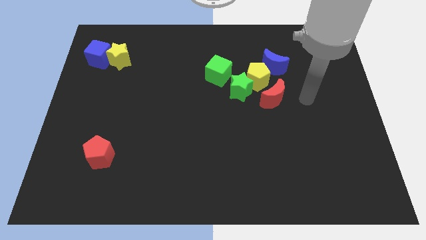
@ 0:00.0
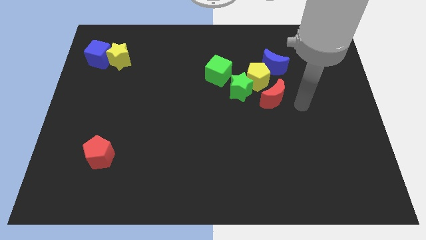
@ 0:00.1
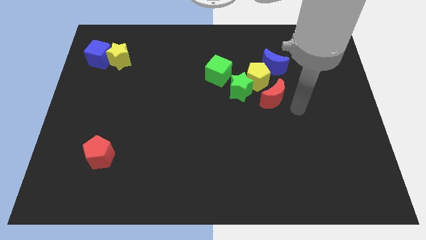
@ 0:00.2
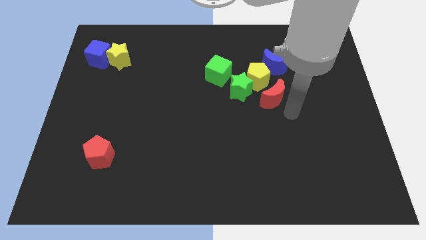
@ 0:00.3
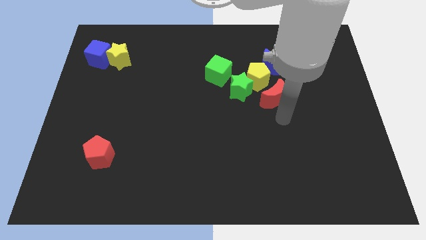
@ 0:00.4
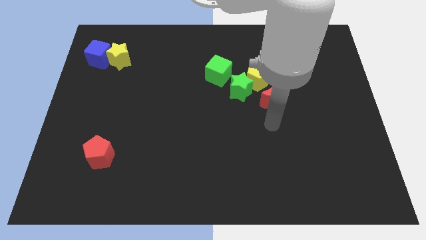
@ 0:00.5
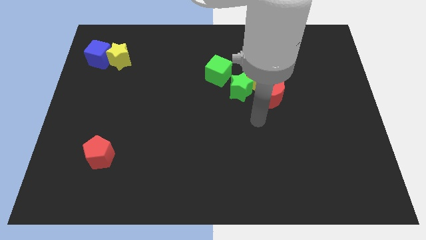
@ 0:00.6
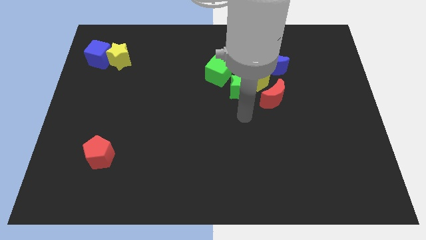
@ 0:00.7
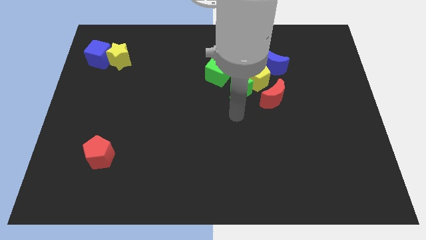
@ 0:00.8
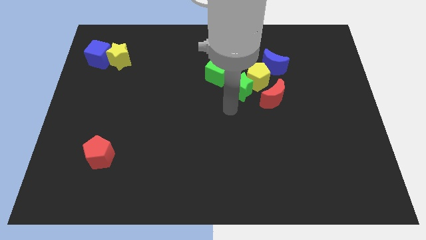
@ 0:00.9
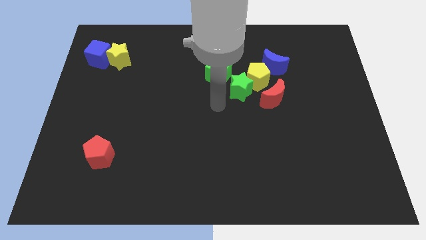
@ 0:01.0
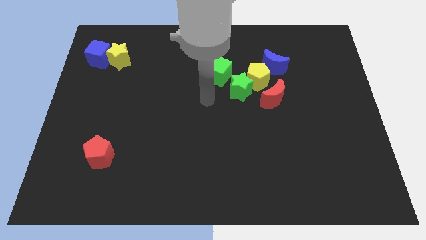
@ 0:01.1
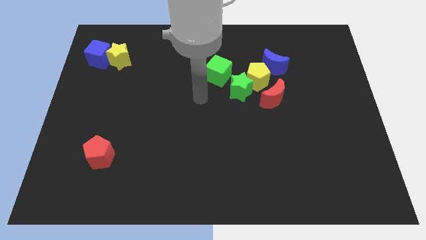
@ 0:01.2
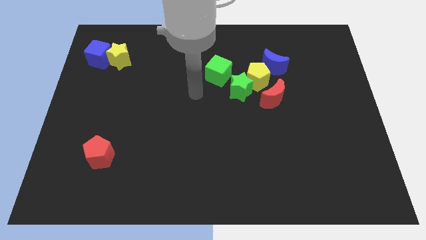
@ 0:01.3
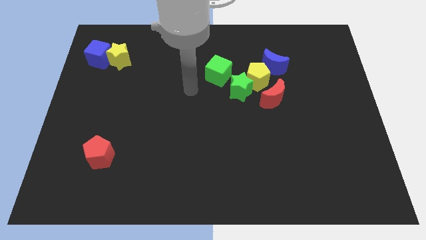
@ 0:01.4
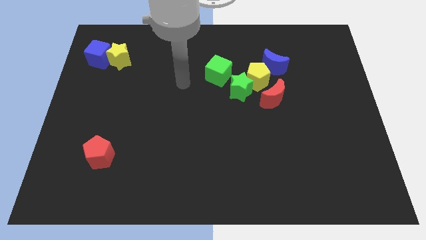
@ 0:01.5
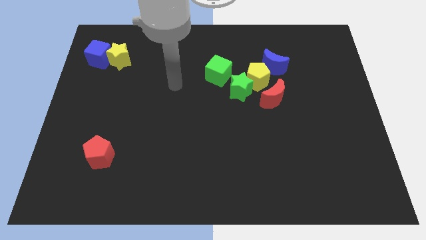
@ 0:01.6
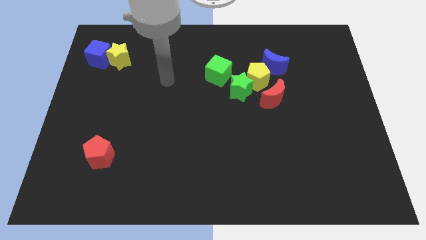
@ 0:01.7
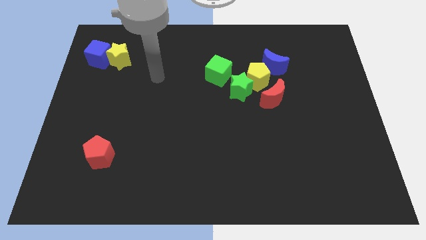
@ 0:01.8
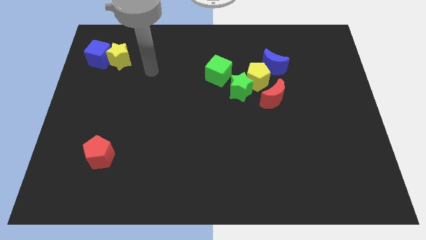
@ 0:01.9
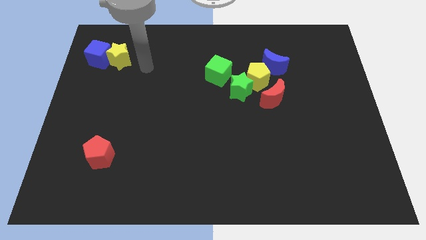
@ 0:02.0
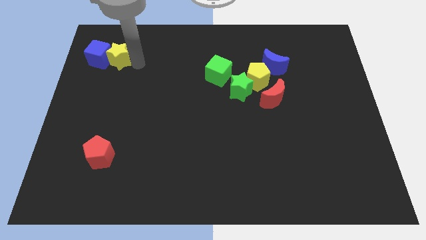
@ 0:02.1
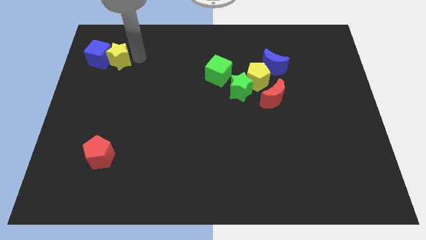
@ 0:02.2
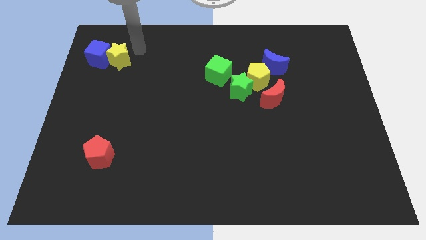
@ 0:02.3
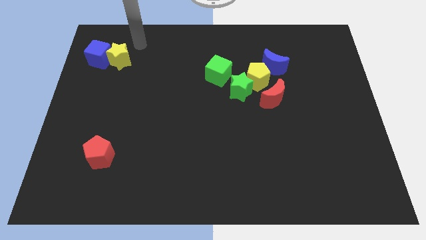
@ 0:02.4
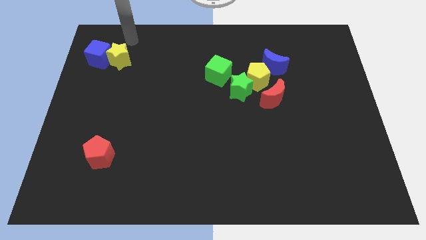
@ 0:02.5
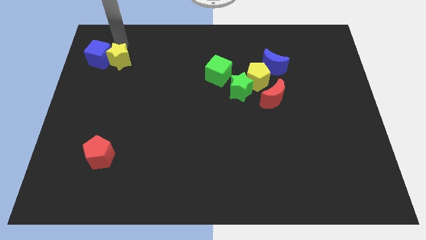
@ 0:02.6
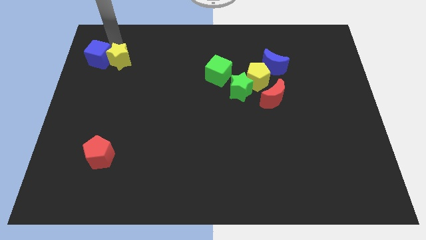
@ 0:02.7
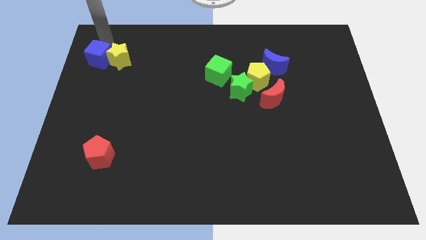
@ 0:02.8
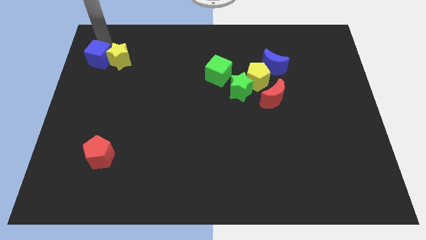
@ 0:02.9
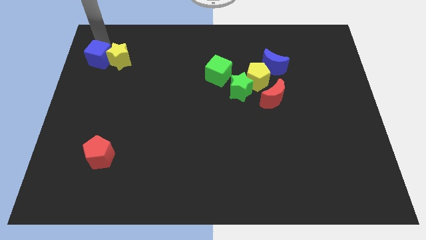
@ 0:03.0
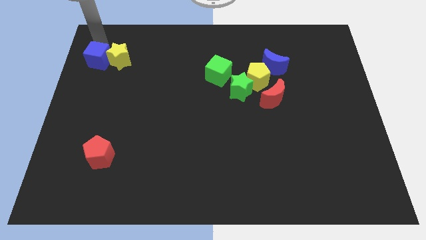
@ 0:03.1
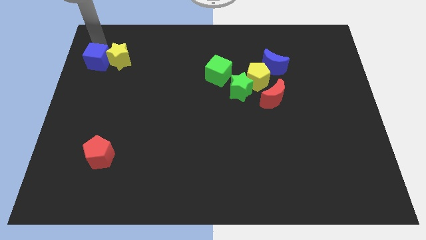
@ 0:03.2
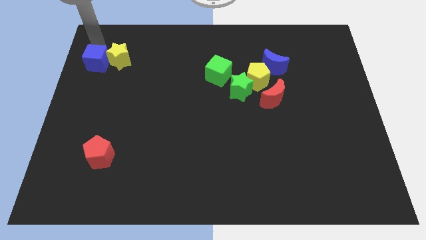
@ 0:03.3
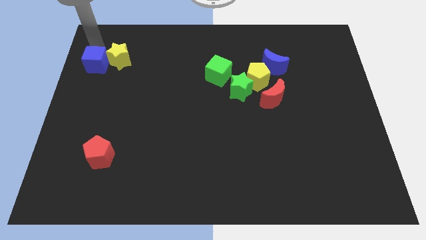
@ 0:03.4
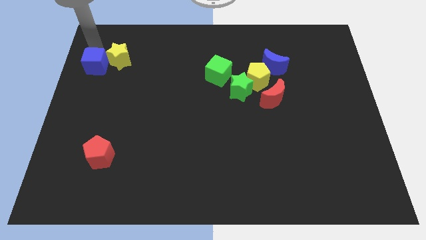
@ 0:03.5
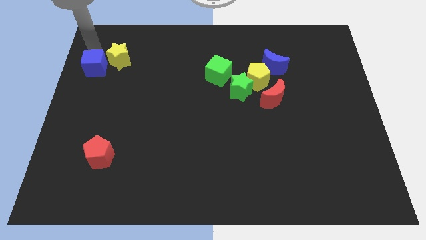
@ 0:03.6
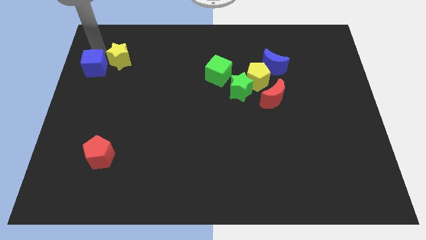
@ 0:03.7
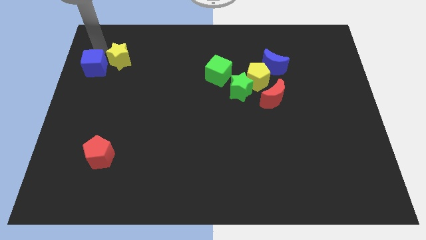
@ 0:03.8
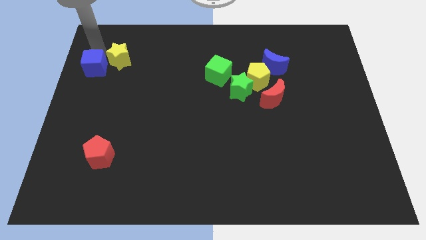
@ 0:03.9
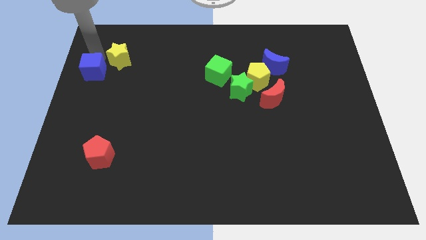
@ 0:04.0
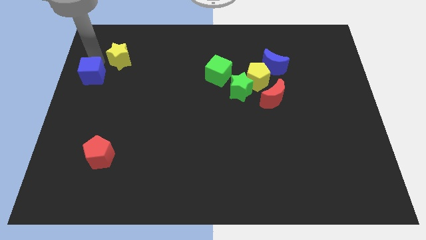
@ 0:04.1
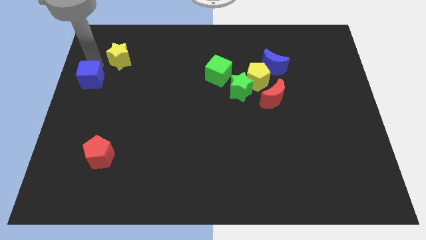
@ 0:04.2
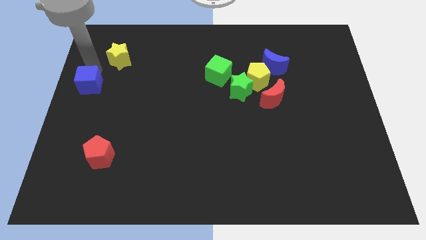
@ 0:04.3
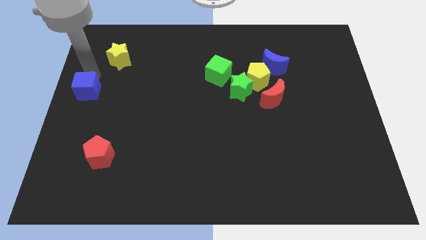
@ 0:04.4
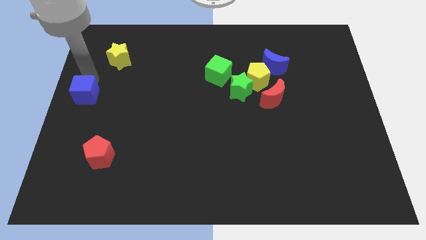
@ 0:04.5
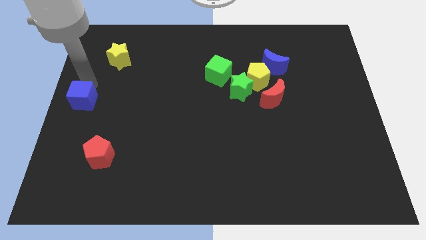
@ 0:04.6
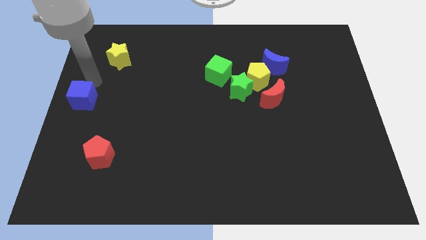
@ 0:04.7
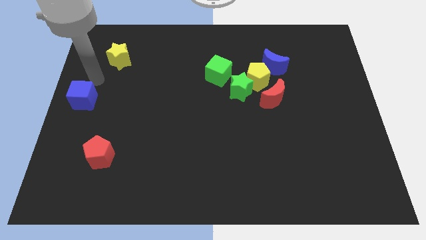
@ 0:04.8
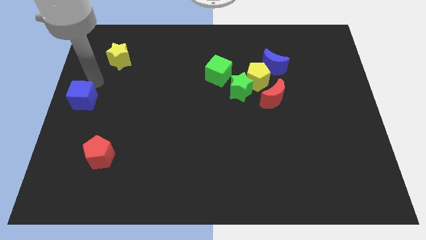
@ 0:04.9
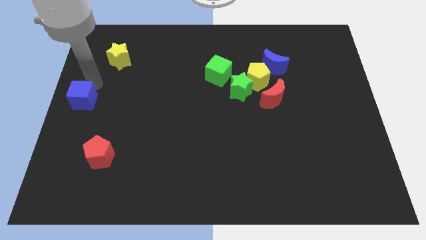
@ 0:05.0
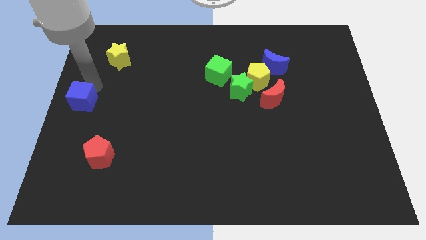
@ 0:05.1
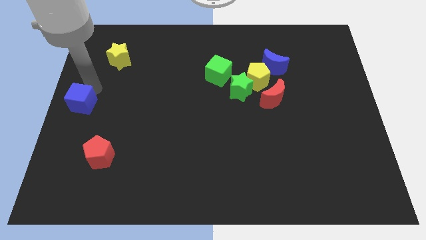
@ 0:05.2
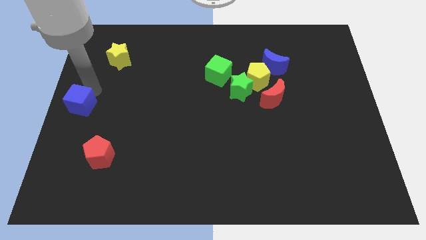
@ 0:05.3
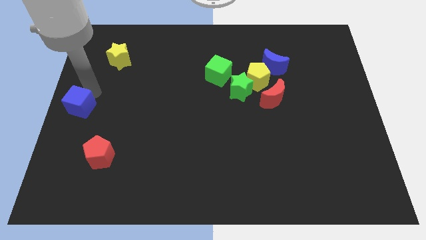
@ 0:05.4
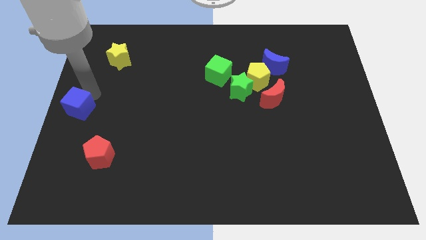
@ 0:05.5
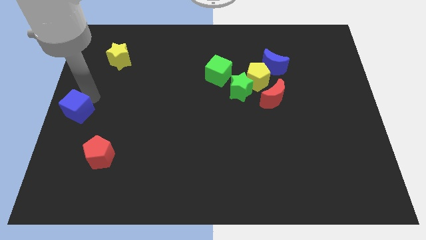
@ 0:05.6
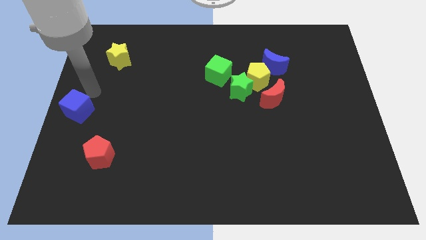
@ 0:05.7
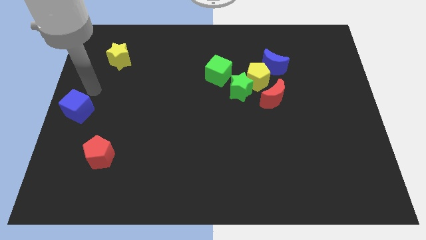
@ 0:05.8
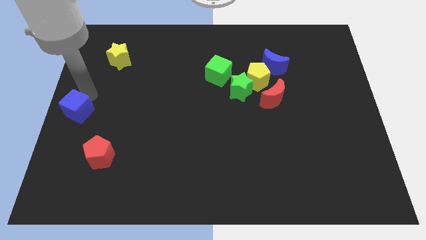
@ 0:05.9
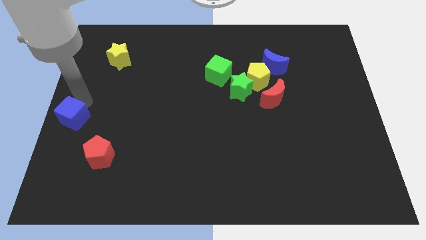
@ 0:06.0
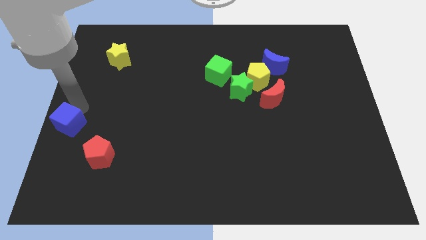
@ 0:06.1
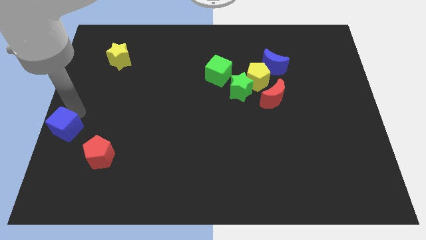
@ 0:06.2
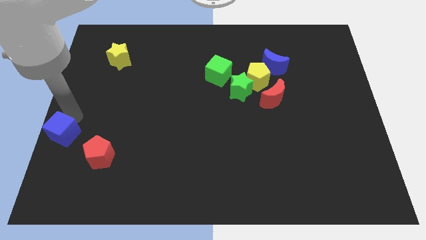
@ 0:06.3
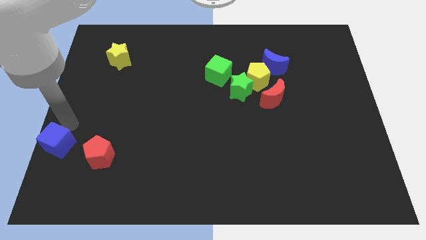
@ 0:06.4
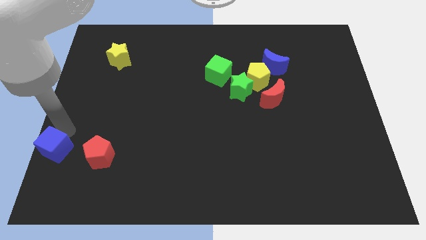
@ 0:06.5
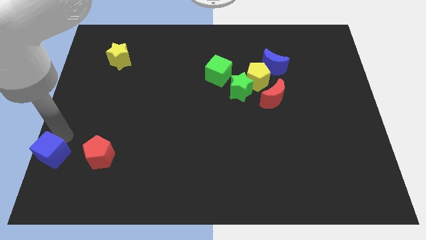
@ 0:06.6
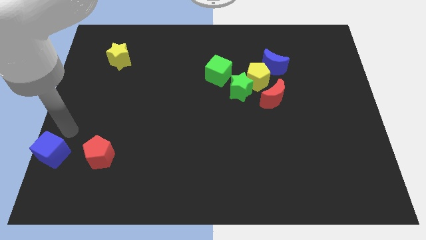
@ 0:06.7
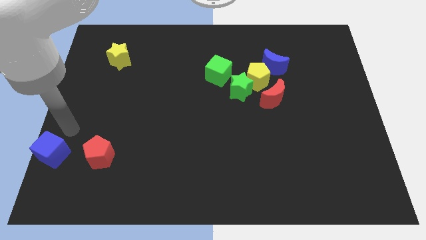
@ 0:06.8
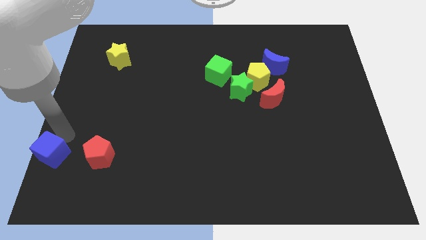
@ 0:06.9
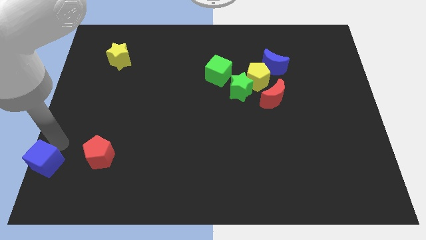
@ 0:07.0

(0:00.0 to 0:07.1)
slide the blue cube to the bottom left
